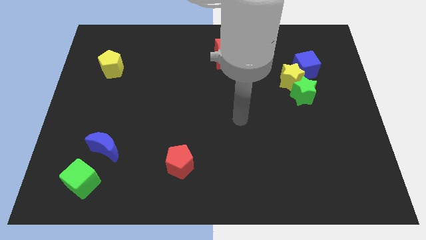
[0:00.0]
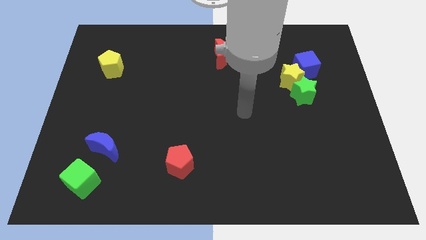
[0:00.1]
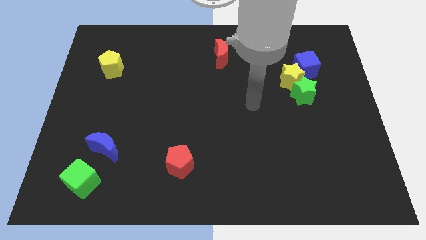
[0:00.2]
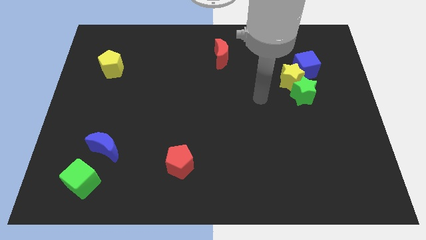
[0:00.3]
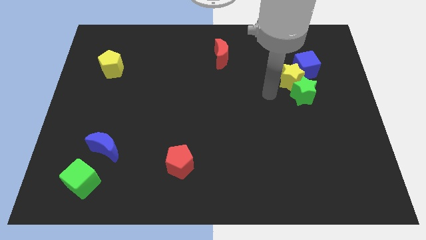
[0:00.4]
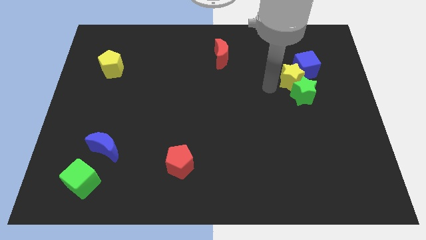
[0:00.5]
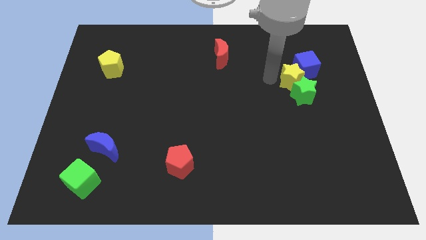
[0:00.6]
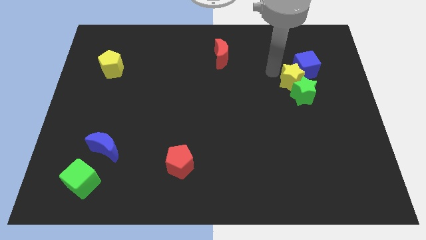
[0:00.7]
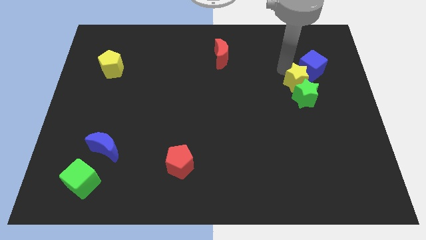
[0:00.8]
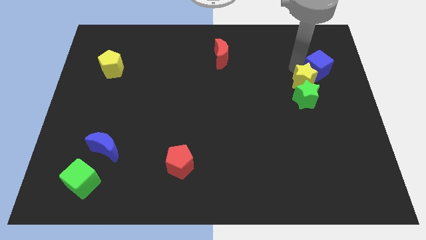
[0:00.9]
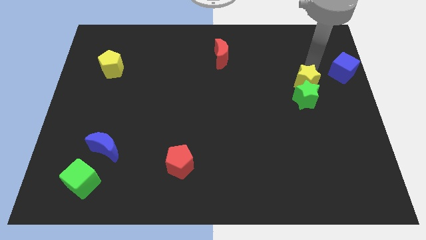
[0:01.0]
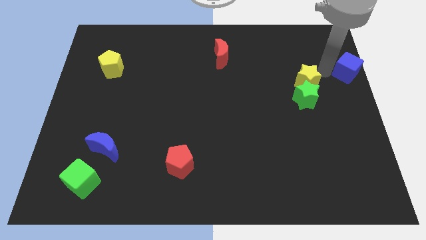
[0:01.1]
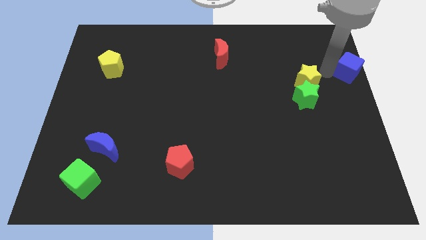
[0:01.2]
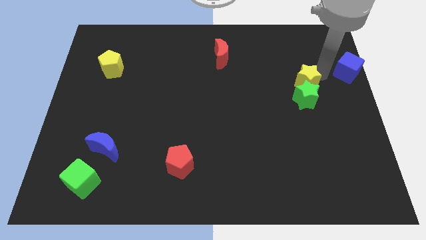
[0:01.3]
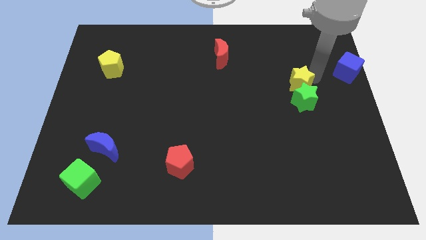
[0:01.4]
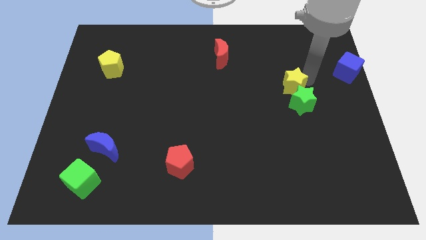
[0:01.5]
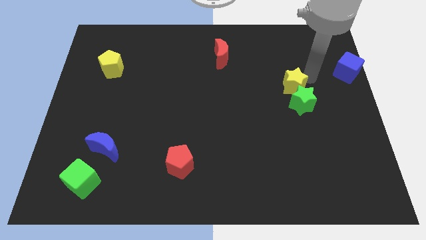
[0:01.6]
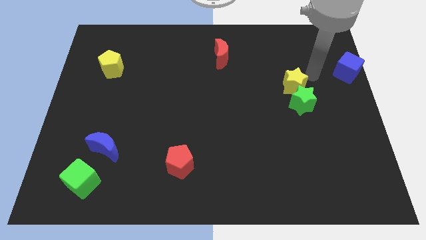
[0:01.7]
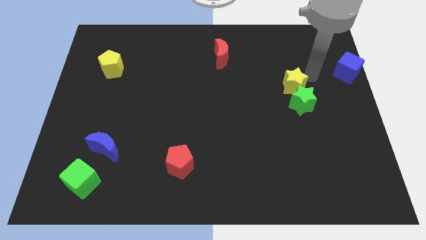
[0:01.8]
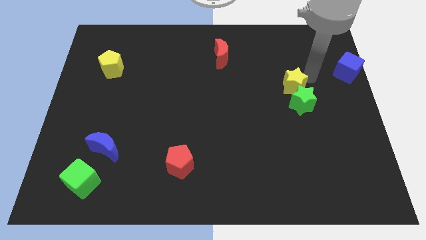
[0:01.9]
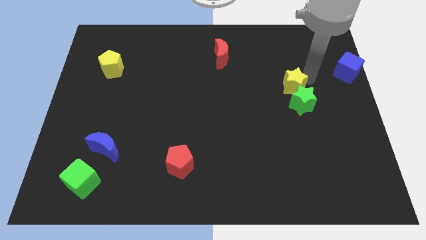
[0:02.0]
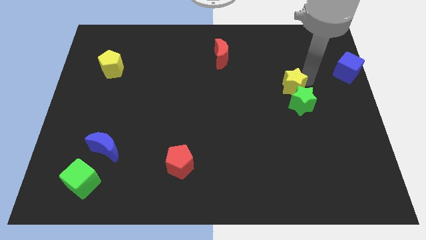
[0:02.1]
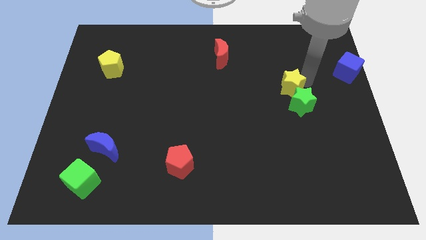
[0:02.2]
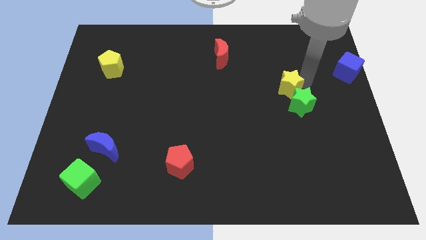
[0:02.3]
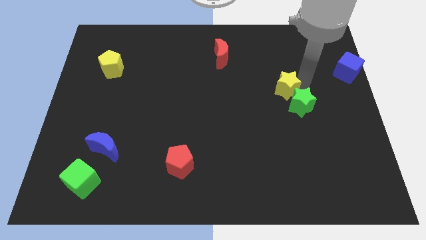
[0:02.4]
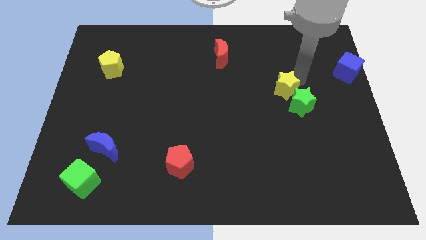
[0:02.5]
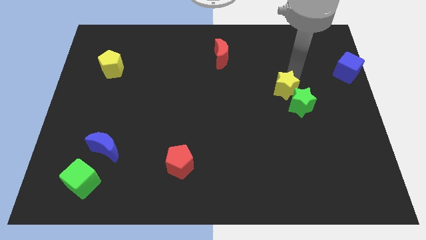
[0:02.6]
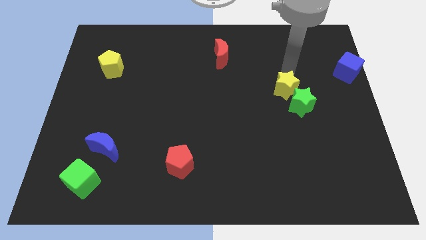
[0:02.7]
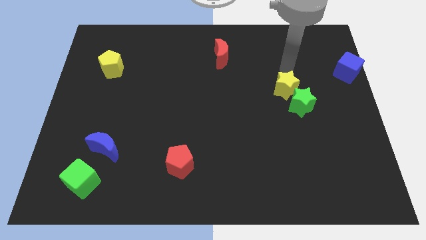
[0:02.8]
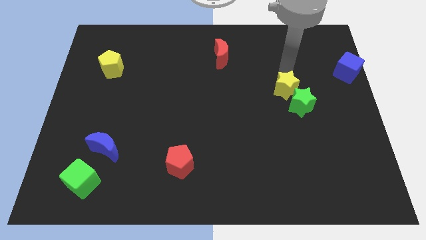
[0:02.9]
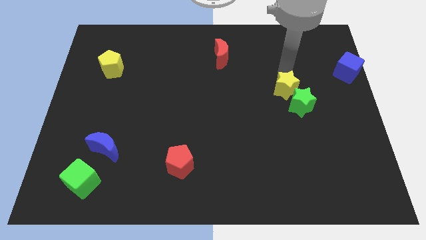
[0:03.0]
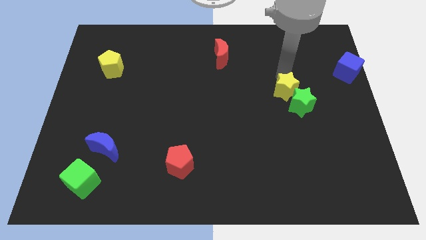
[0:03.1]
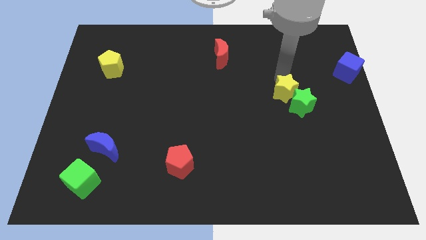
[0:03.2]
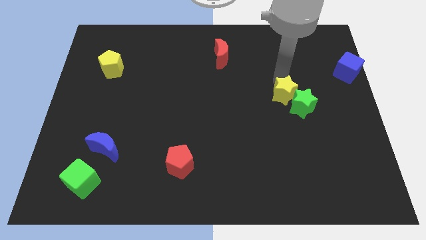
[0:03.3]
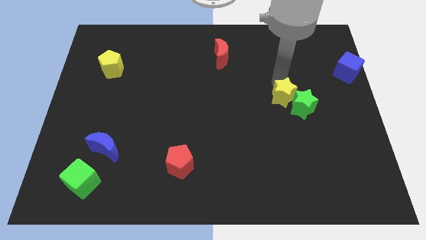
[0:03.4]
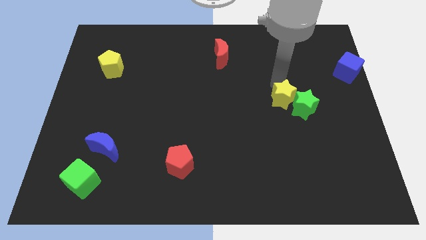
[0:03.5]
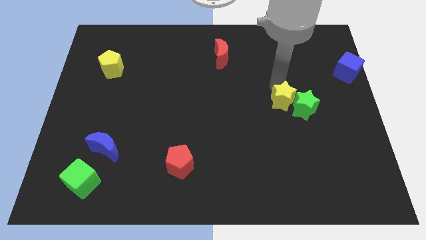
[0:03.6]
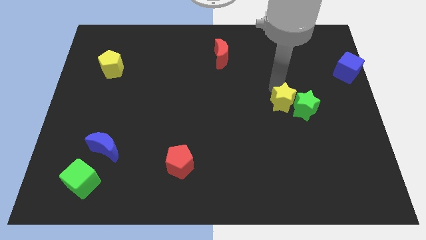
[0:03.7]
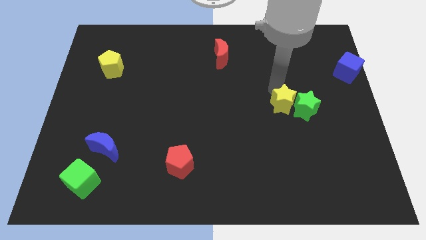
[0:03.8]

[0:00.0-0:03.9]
push the yellow star a little bit down

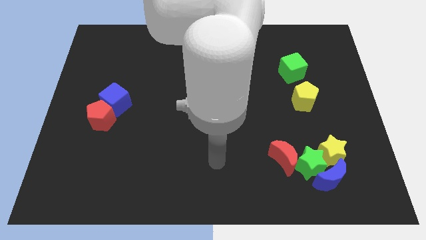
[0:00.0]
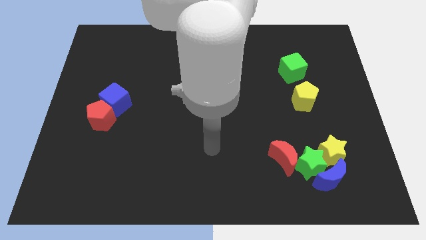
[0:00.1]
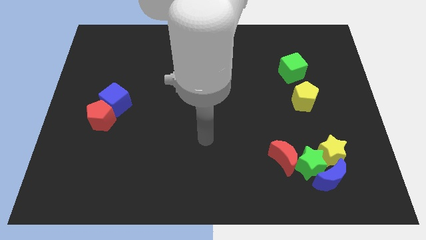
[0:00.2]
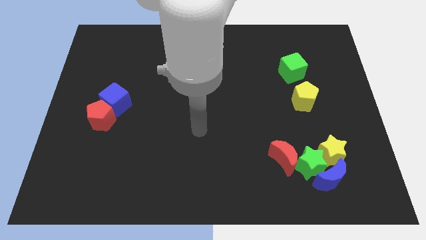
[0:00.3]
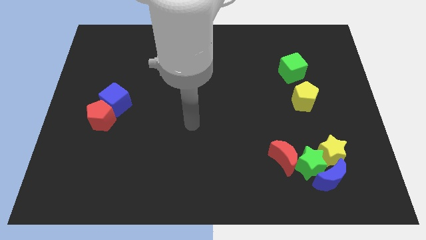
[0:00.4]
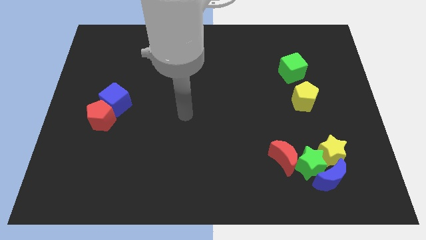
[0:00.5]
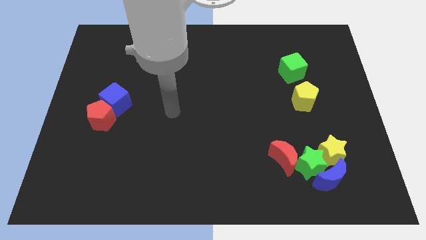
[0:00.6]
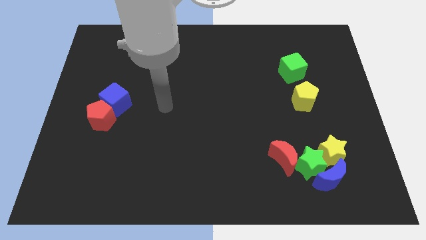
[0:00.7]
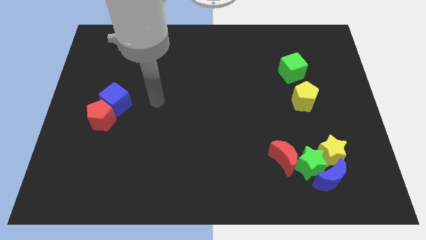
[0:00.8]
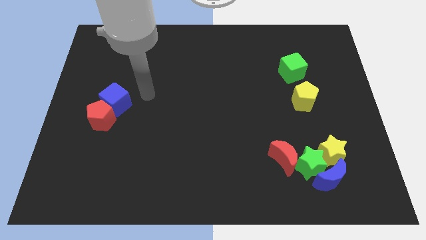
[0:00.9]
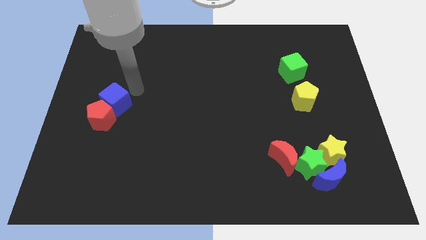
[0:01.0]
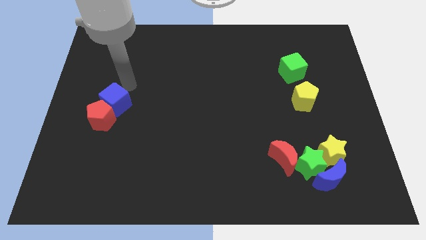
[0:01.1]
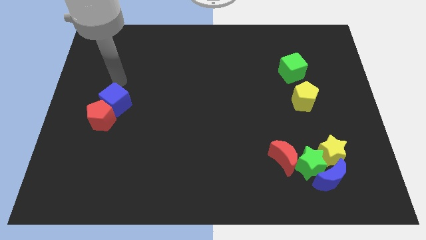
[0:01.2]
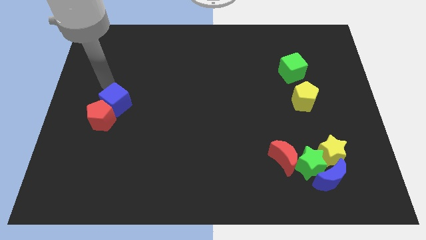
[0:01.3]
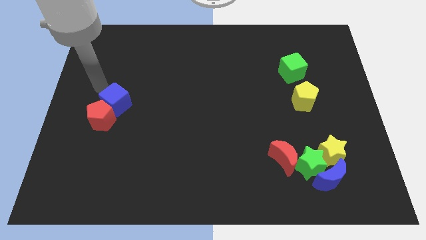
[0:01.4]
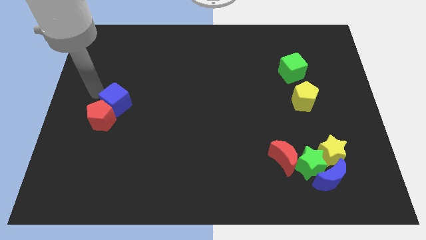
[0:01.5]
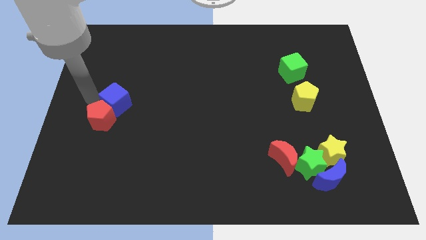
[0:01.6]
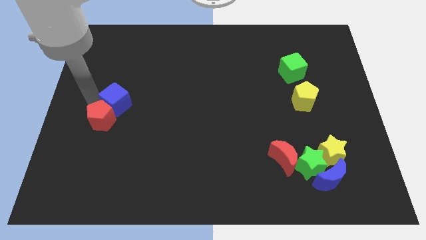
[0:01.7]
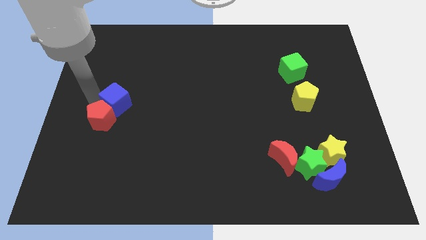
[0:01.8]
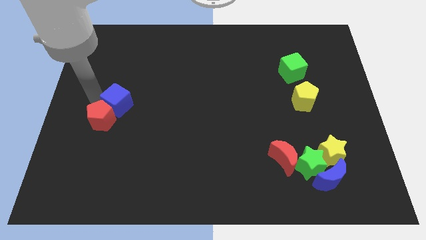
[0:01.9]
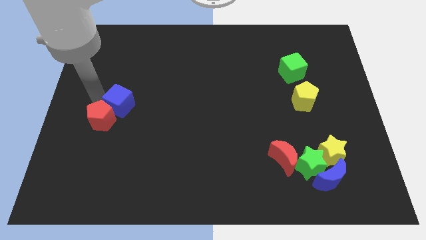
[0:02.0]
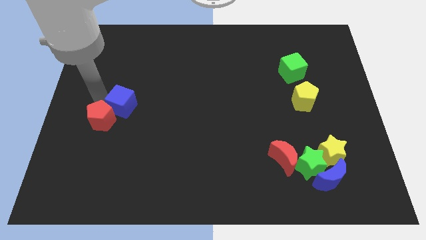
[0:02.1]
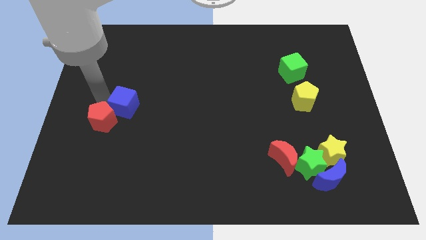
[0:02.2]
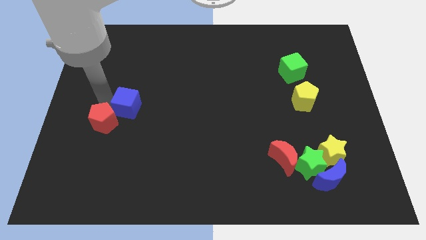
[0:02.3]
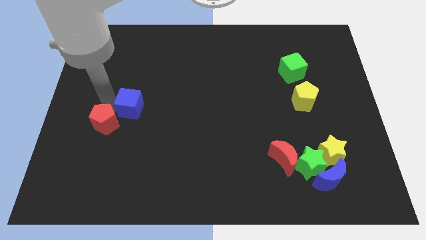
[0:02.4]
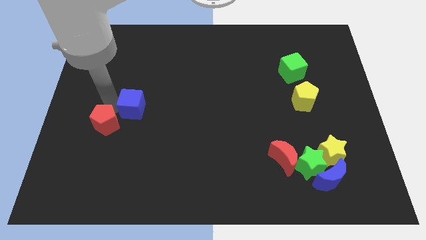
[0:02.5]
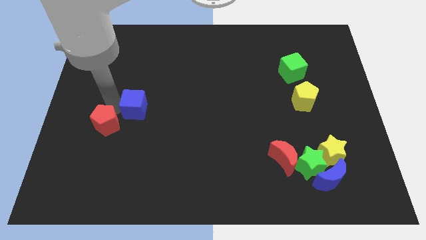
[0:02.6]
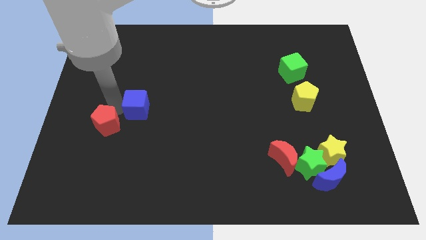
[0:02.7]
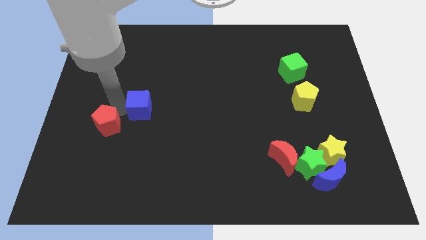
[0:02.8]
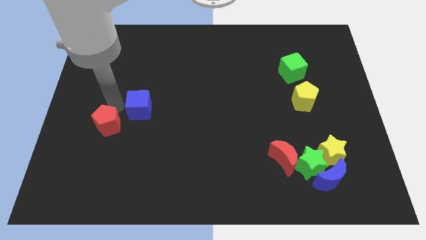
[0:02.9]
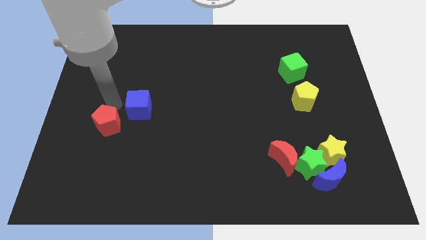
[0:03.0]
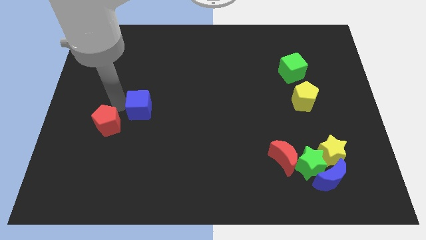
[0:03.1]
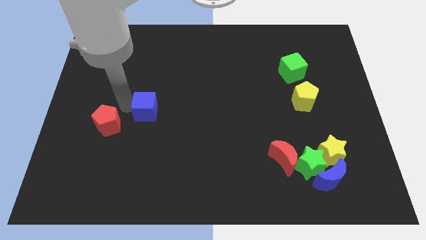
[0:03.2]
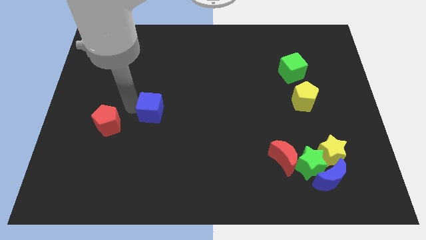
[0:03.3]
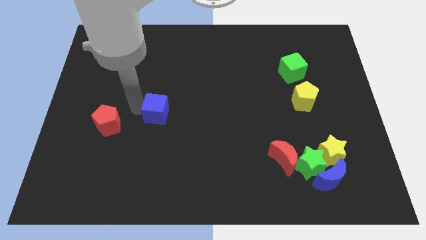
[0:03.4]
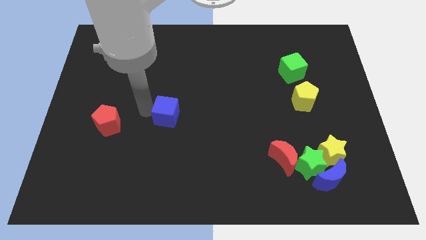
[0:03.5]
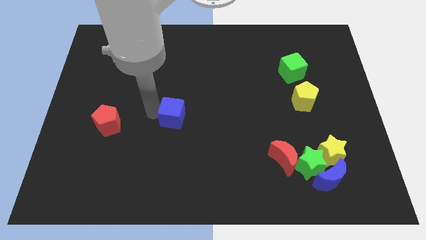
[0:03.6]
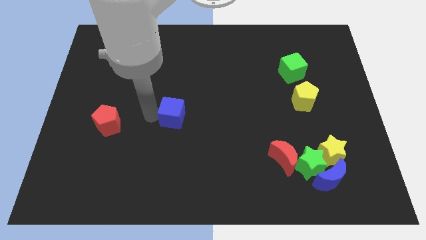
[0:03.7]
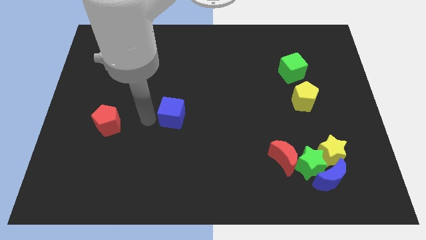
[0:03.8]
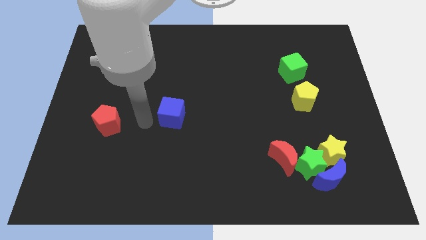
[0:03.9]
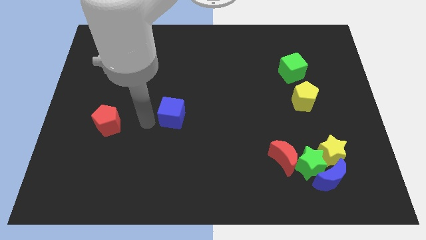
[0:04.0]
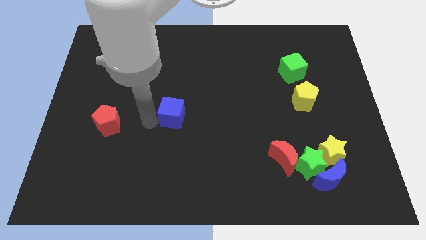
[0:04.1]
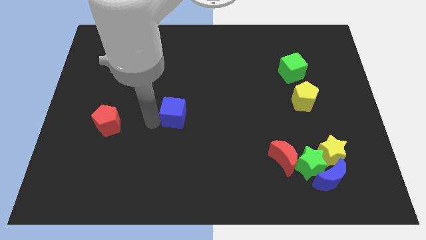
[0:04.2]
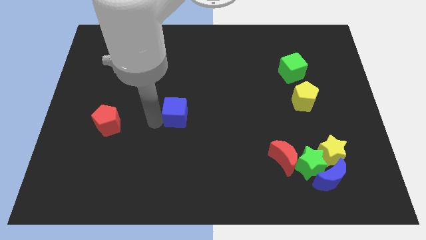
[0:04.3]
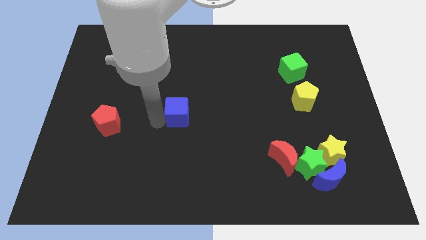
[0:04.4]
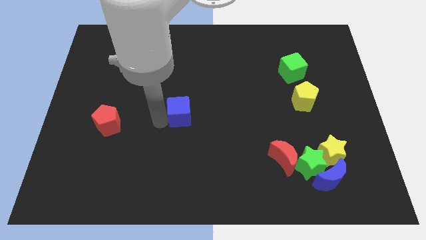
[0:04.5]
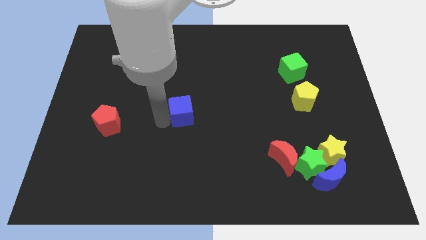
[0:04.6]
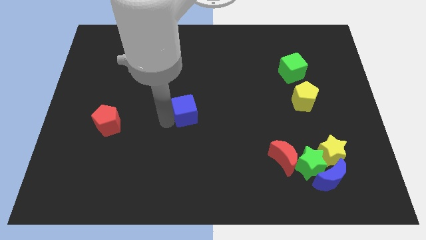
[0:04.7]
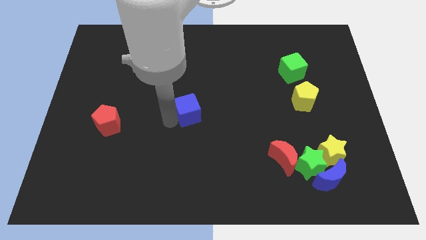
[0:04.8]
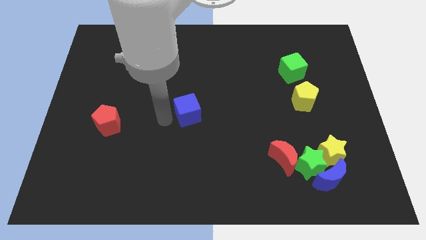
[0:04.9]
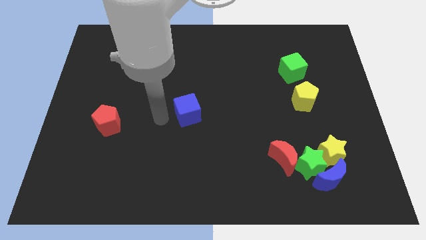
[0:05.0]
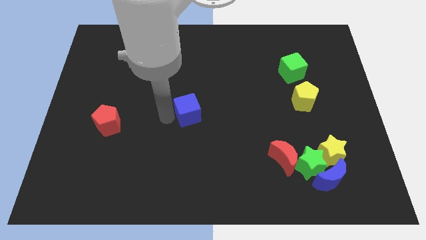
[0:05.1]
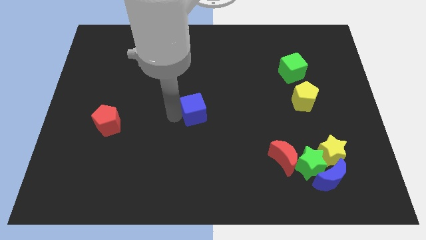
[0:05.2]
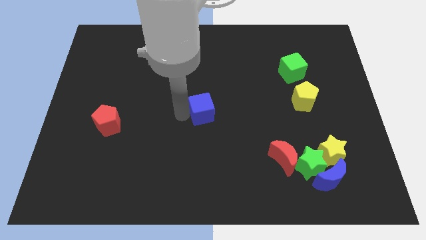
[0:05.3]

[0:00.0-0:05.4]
move the blue cube to the right
